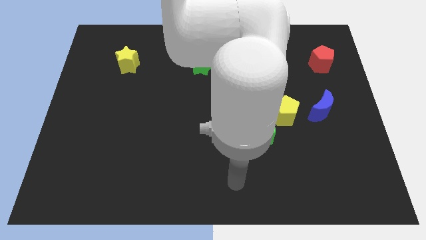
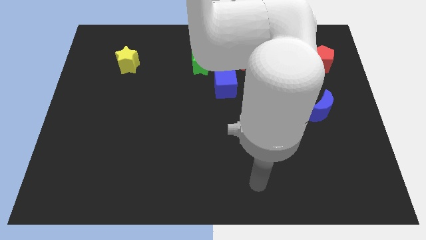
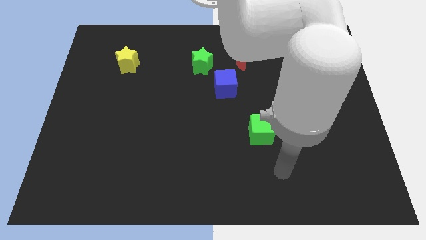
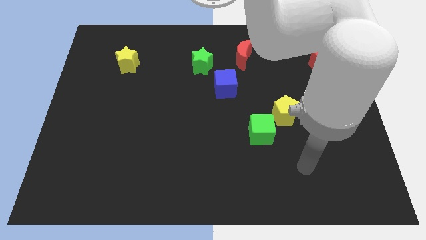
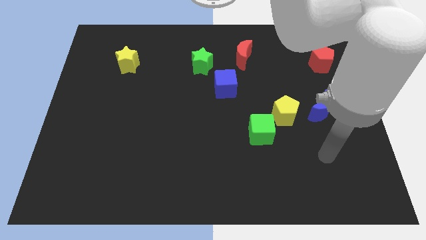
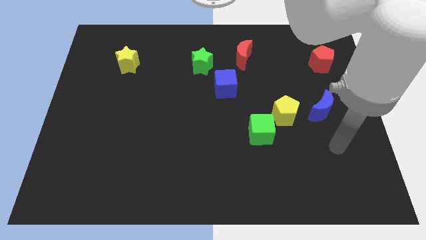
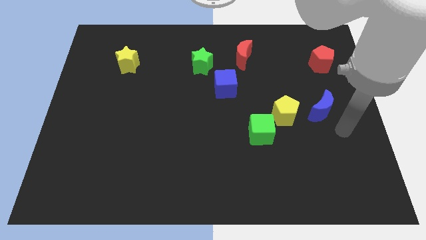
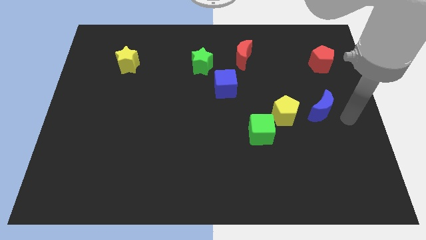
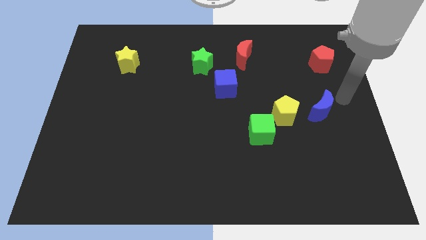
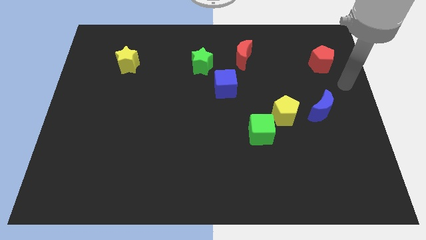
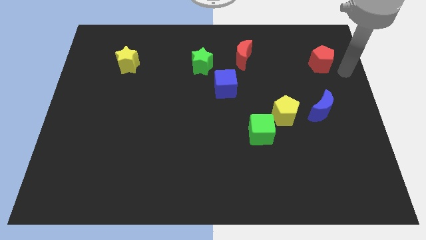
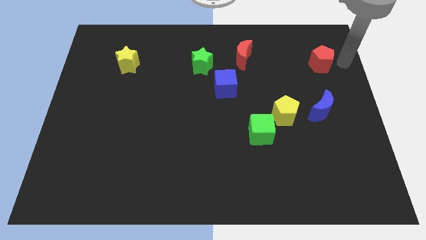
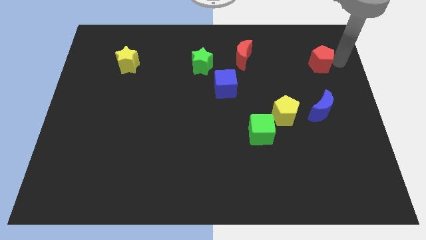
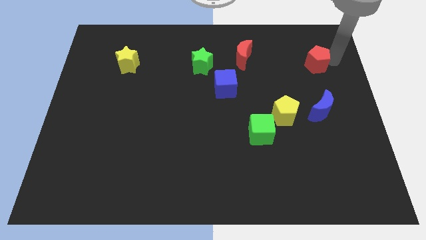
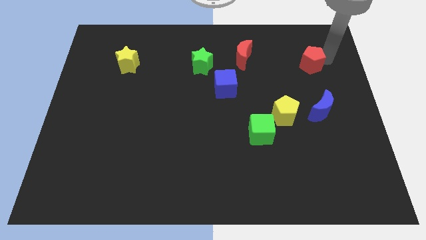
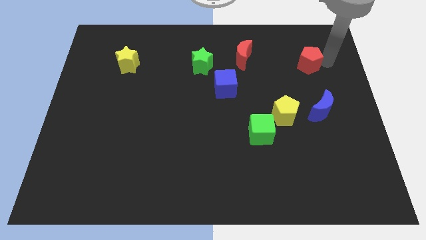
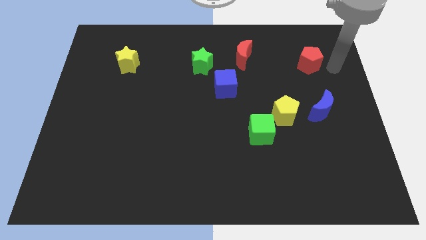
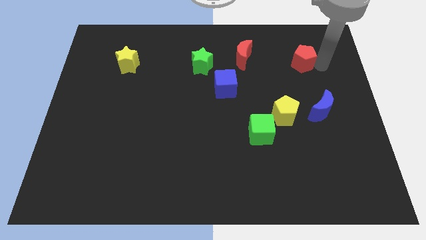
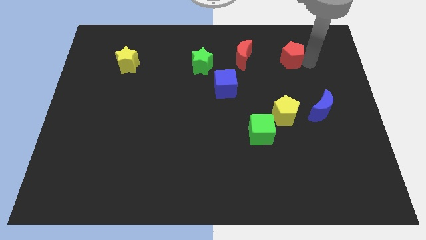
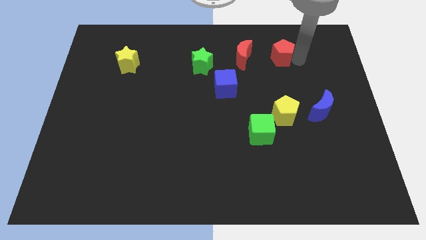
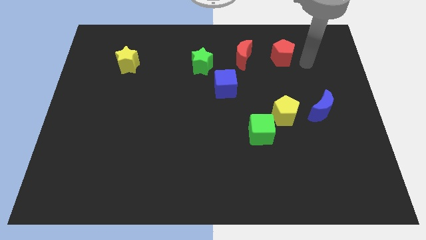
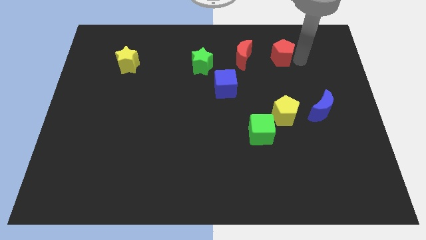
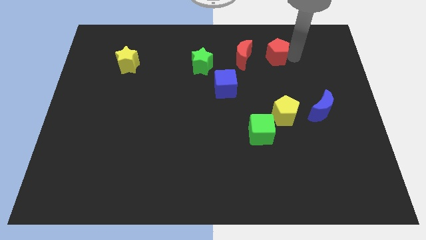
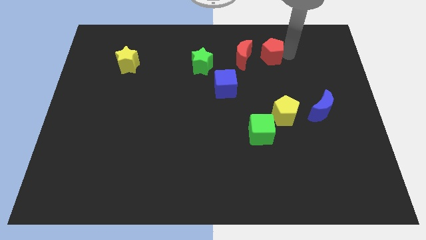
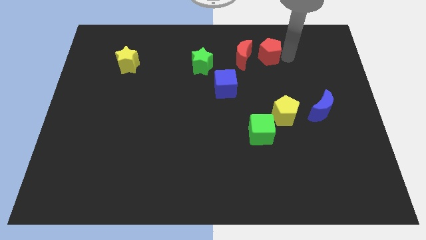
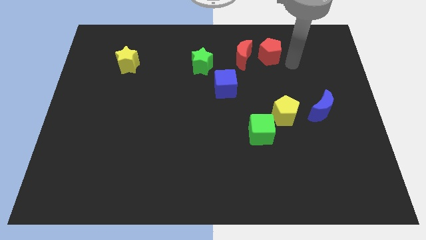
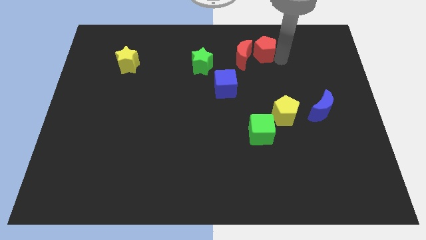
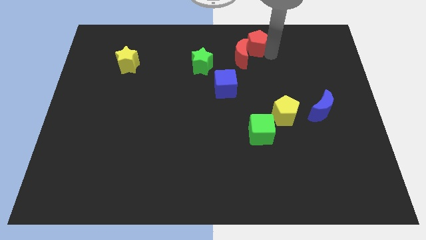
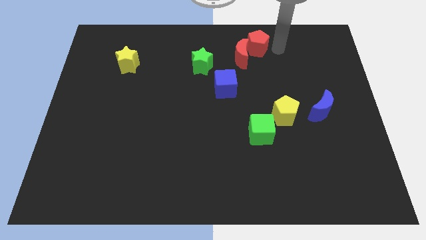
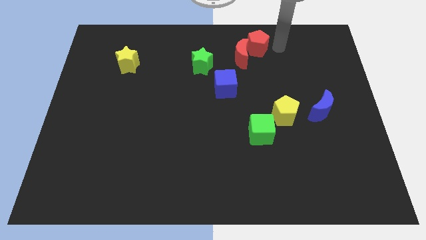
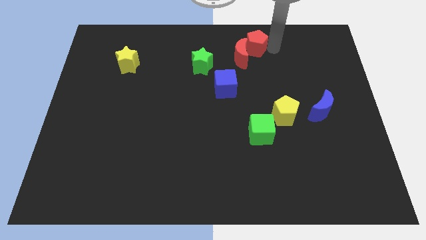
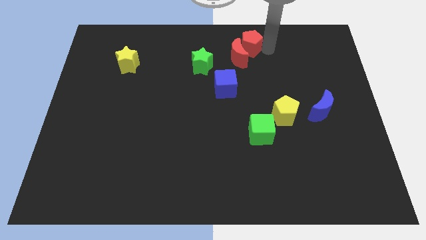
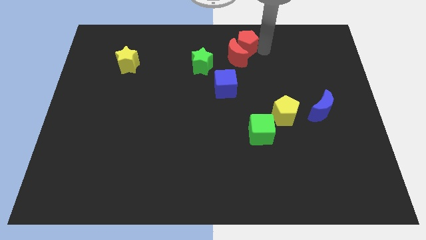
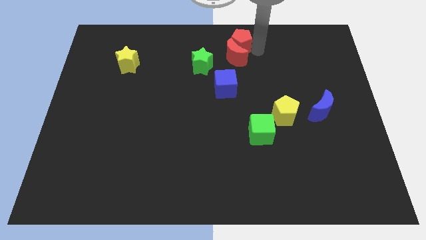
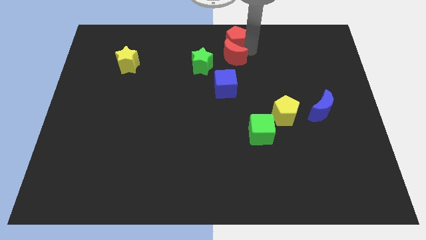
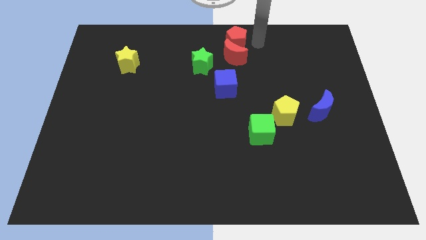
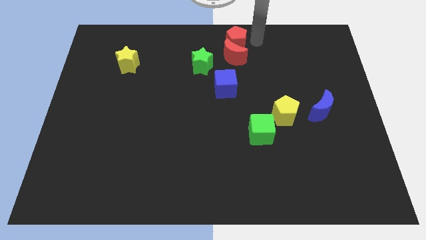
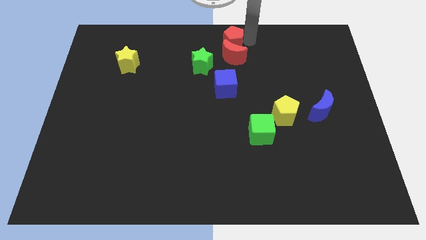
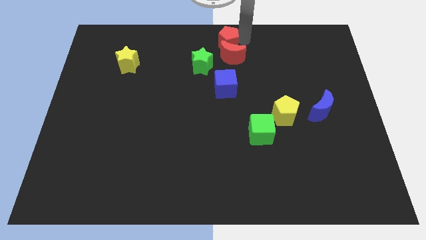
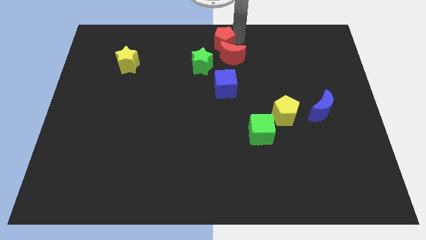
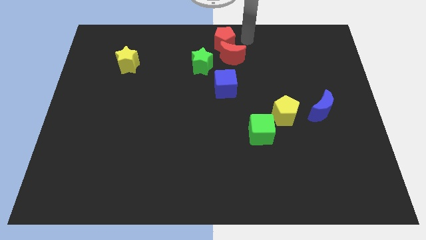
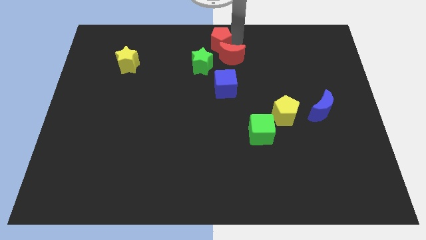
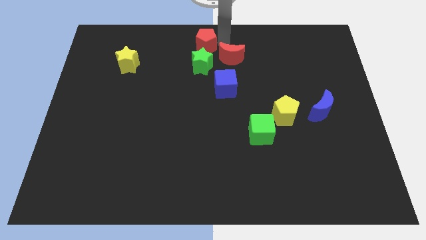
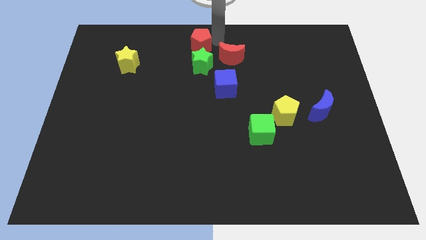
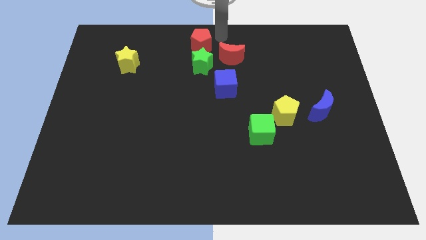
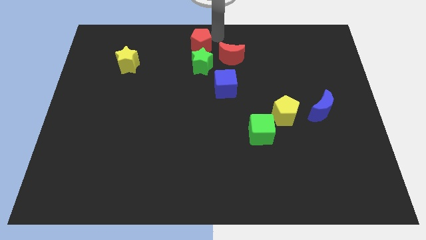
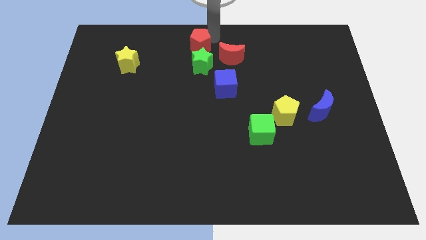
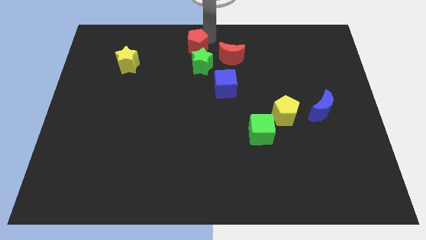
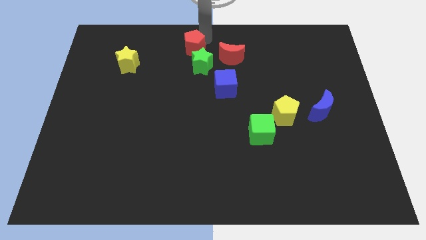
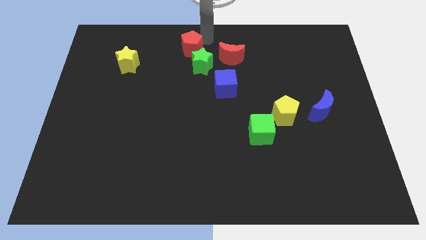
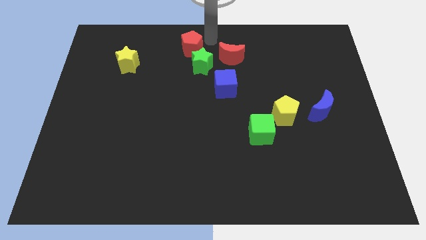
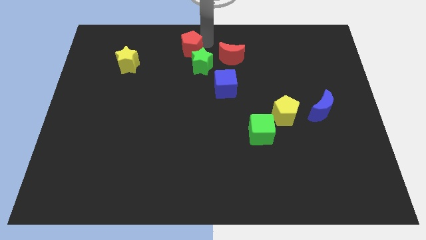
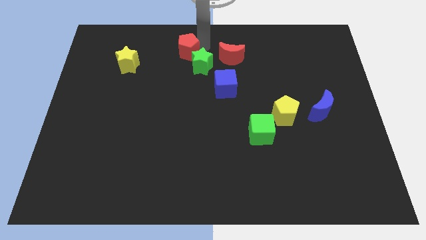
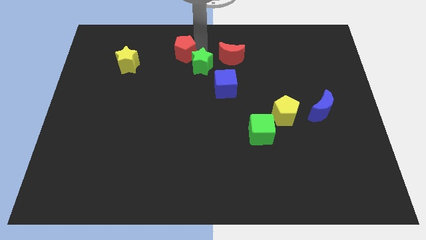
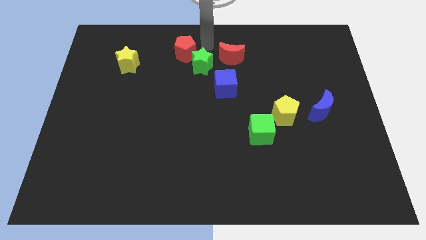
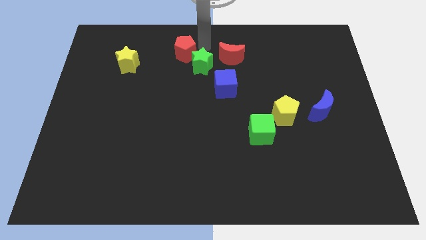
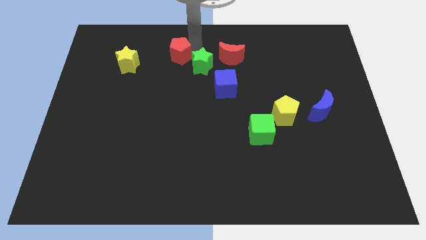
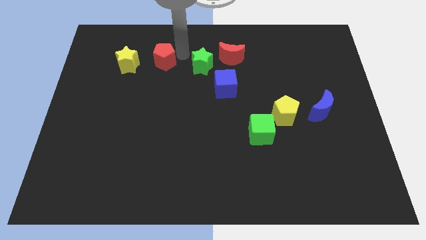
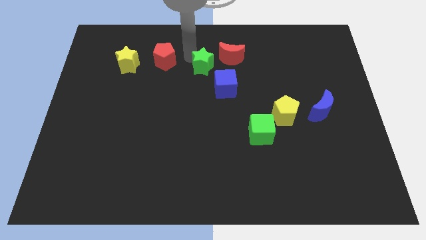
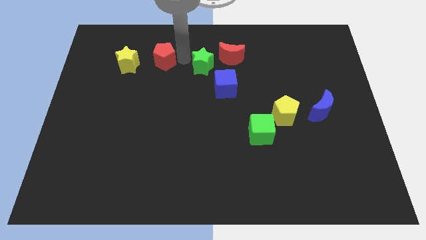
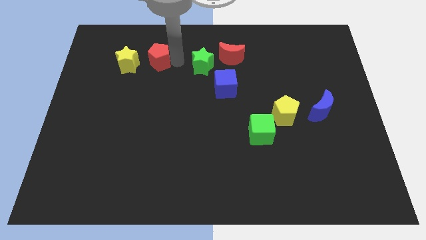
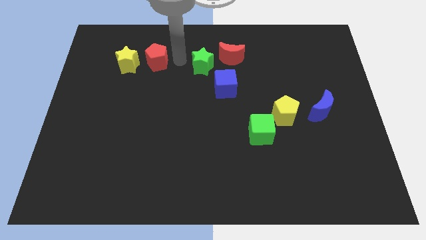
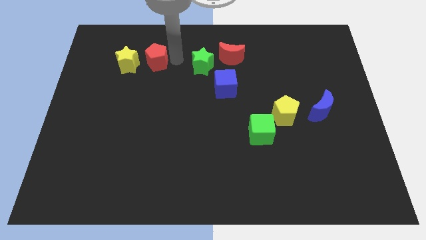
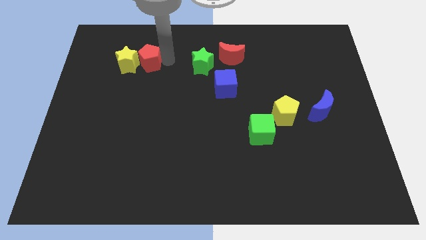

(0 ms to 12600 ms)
move the red pentagon next to the yellow star

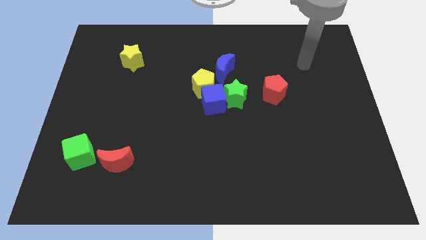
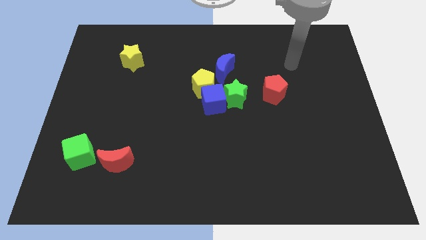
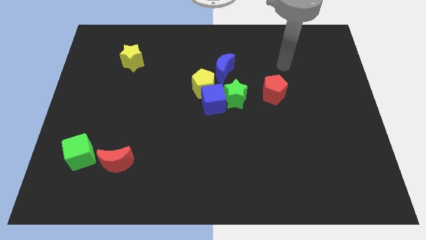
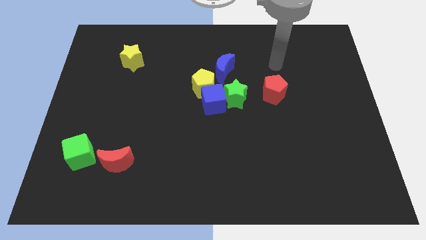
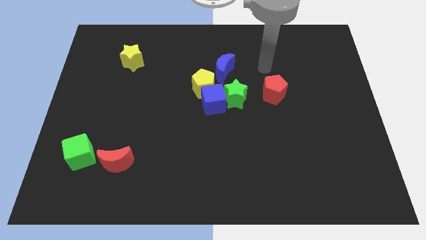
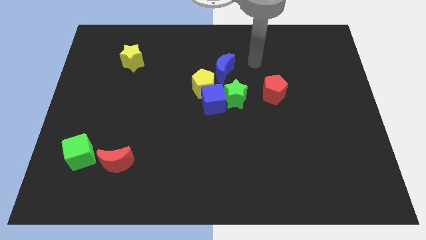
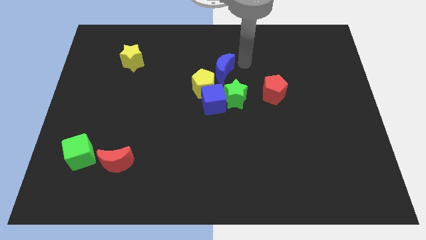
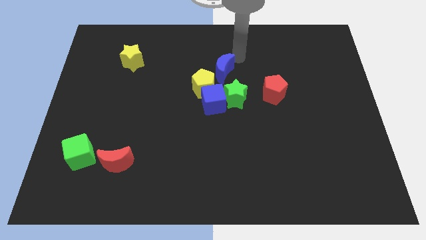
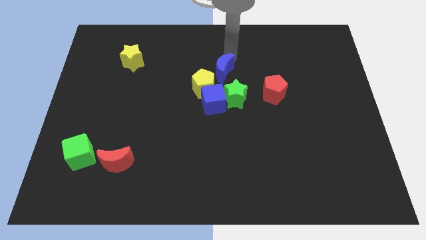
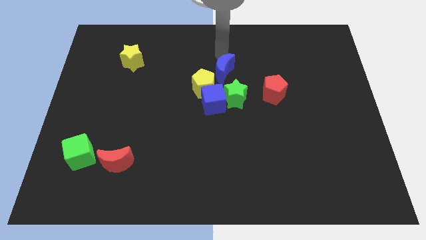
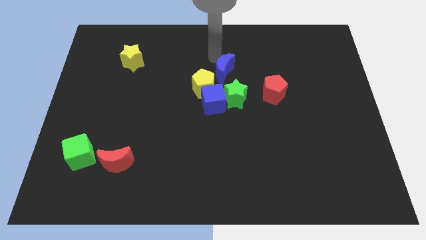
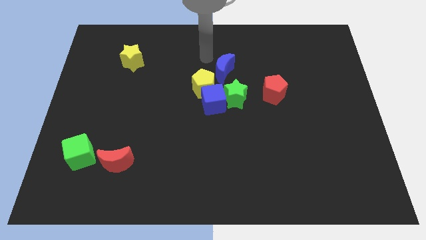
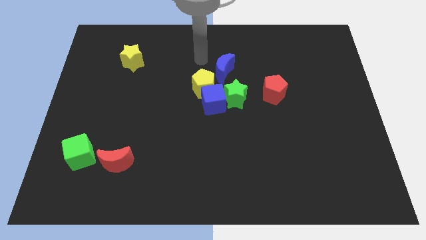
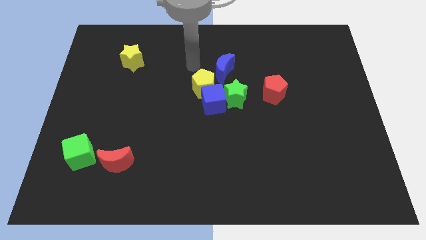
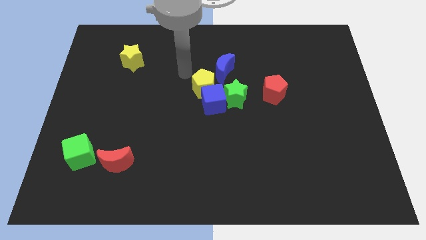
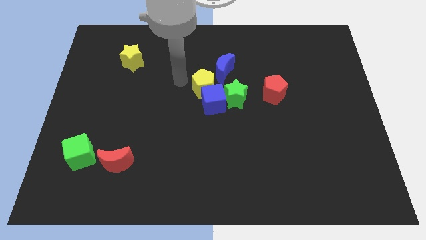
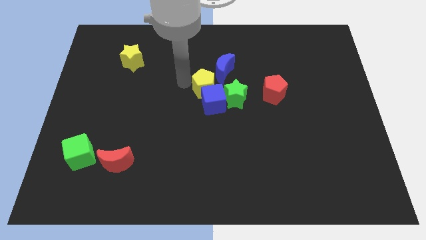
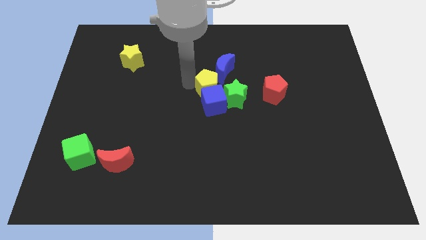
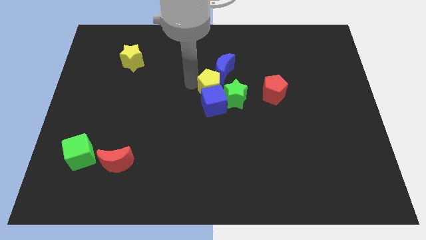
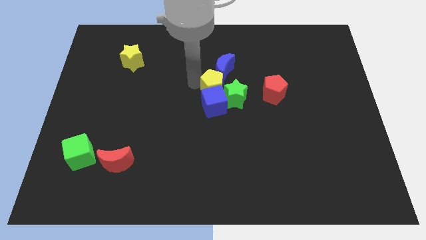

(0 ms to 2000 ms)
move the yellow pentagon next to the green star
